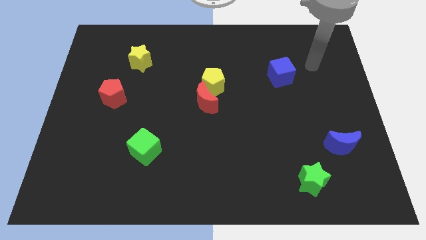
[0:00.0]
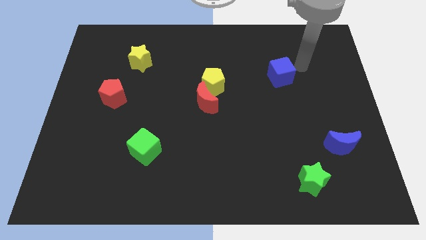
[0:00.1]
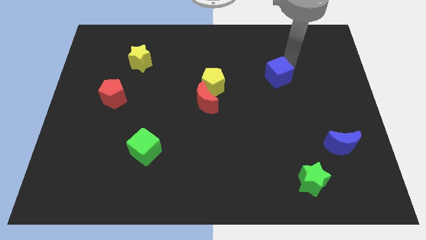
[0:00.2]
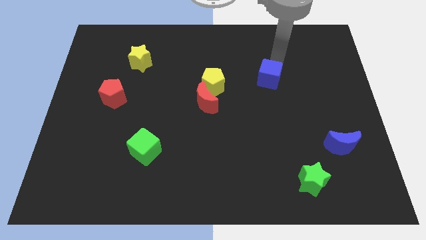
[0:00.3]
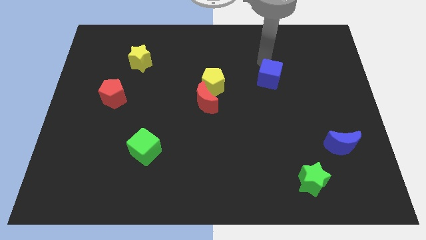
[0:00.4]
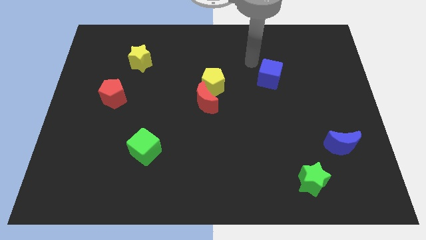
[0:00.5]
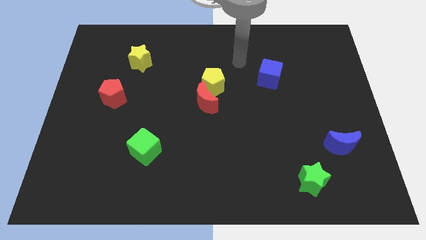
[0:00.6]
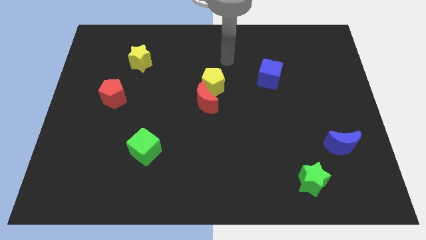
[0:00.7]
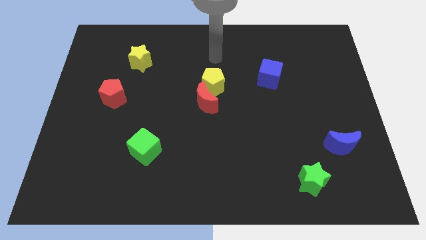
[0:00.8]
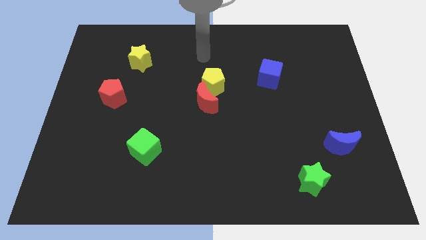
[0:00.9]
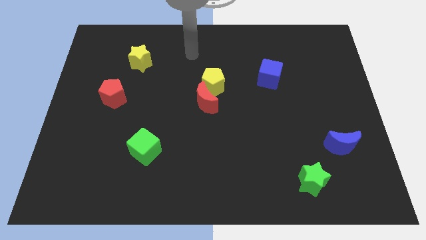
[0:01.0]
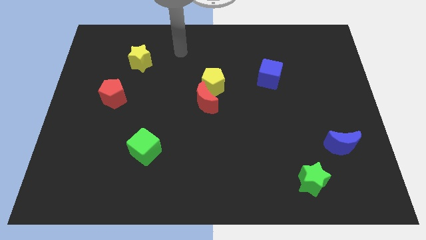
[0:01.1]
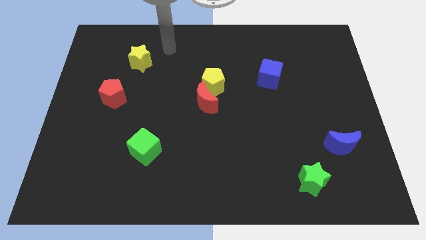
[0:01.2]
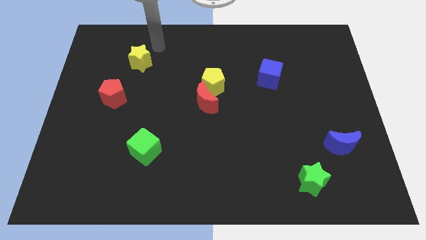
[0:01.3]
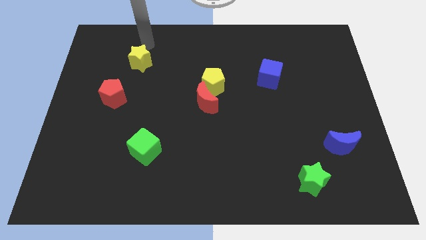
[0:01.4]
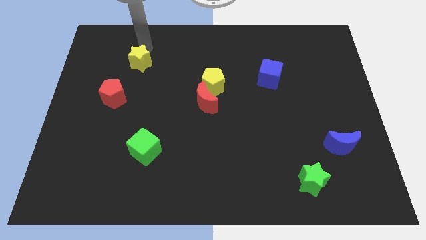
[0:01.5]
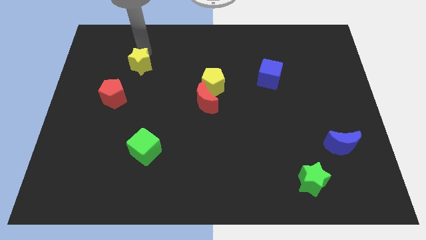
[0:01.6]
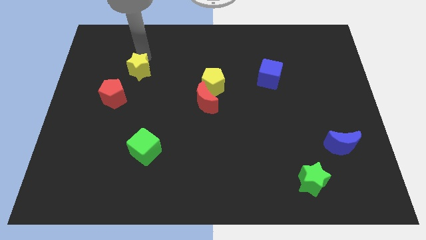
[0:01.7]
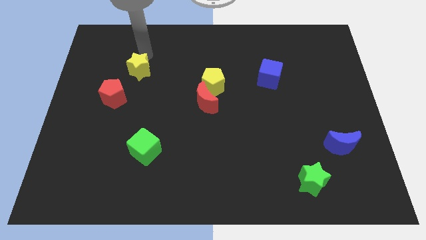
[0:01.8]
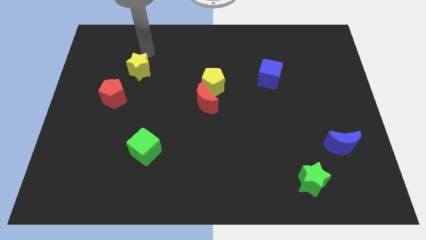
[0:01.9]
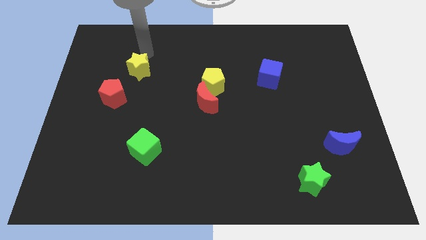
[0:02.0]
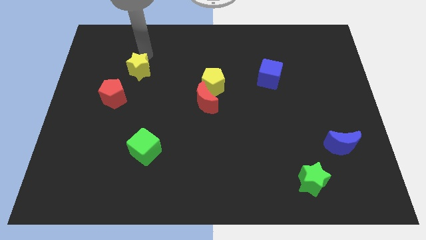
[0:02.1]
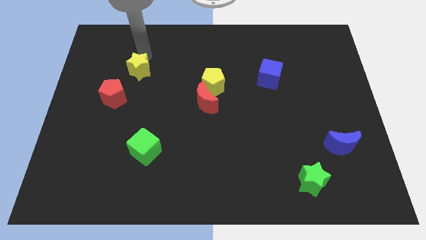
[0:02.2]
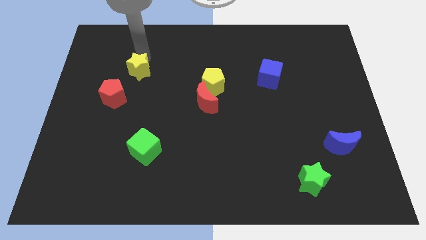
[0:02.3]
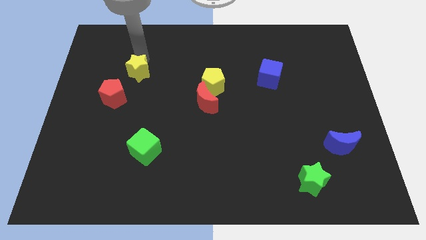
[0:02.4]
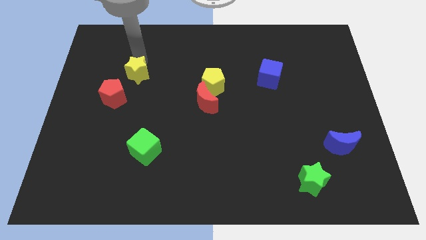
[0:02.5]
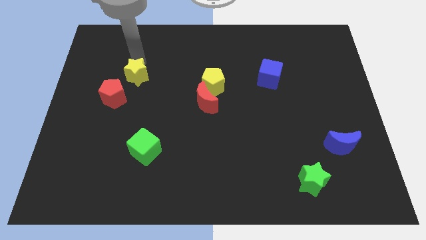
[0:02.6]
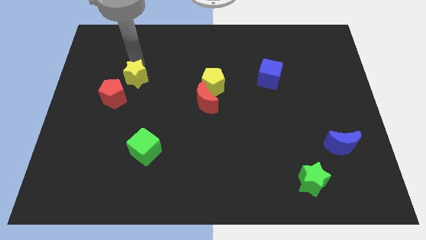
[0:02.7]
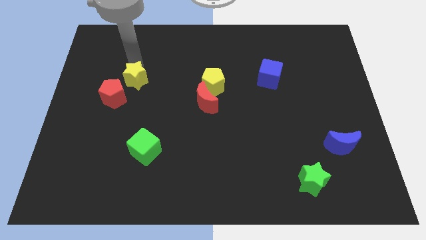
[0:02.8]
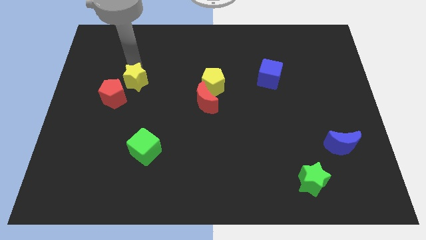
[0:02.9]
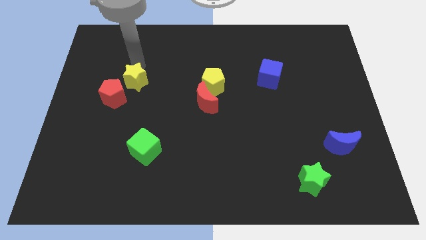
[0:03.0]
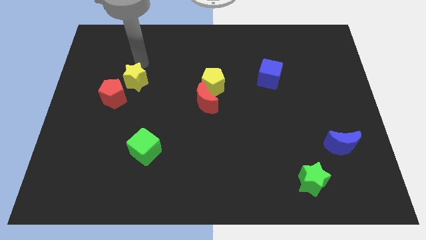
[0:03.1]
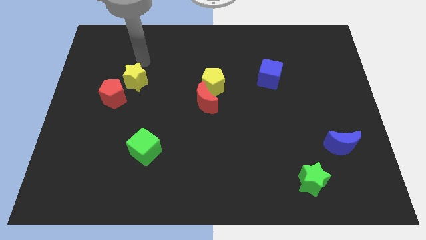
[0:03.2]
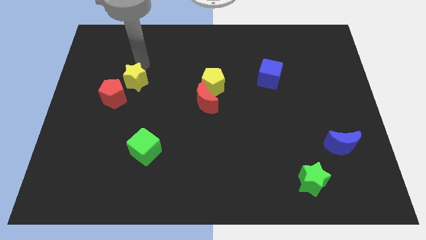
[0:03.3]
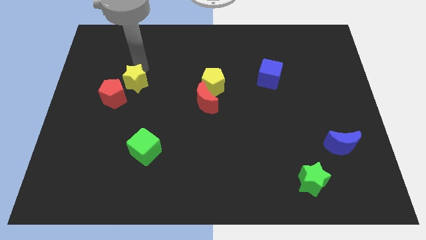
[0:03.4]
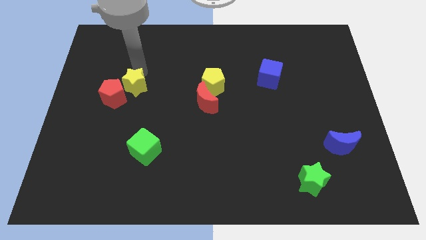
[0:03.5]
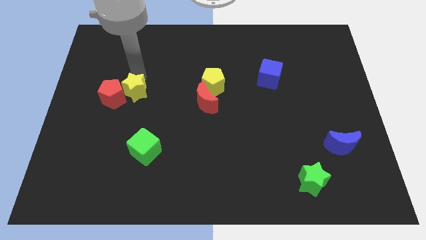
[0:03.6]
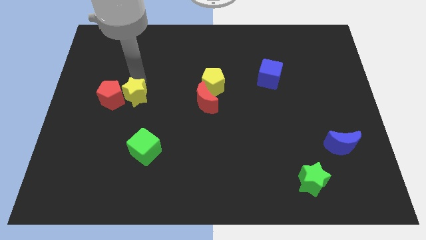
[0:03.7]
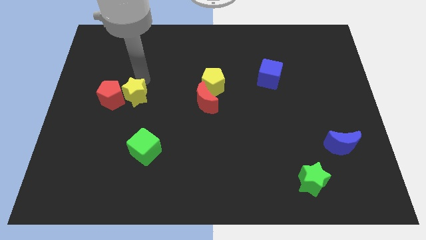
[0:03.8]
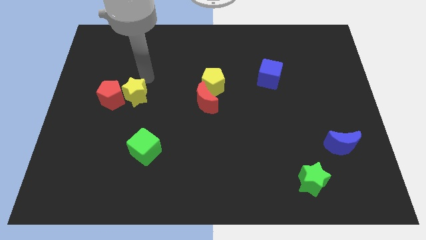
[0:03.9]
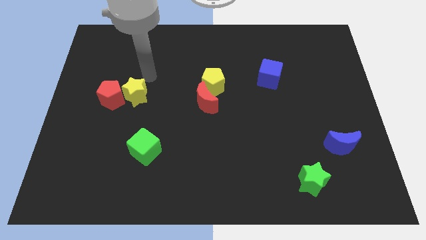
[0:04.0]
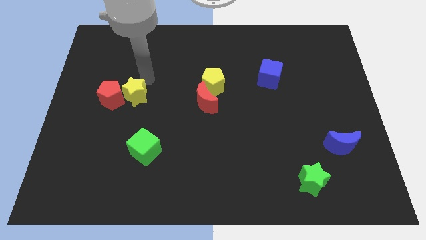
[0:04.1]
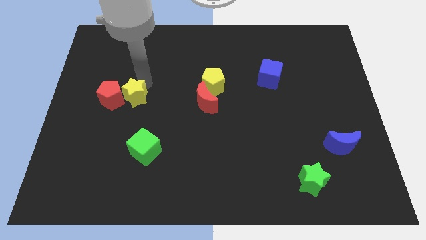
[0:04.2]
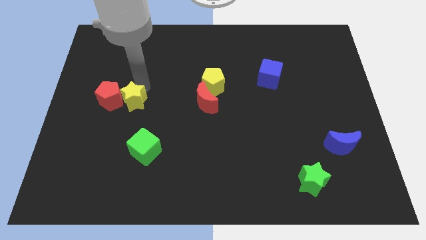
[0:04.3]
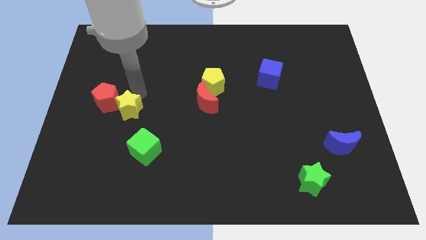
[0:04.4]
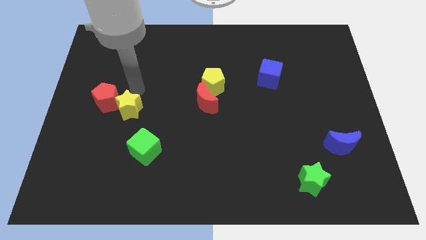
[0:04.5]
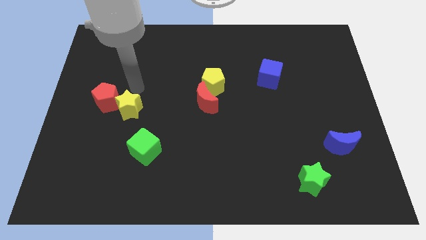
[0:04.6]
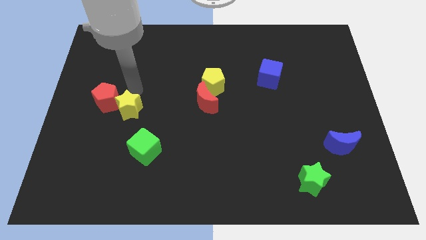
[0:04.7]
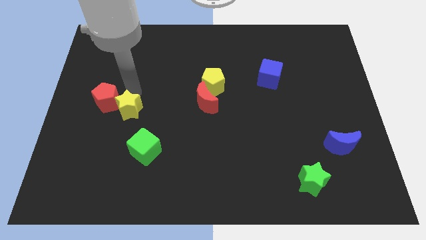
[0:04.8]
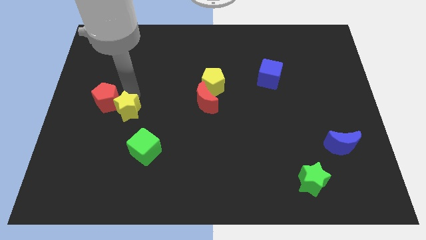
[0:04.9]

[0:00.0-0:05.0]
move the yellow star to the top left of the green cube

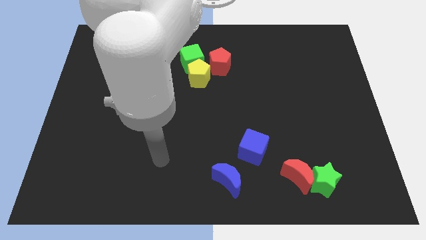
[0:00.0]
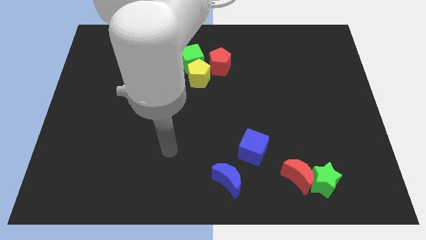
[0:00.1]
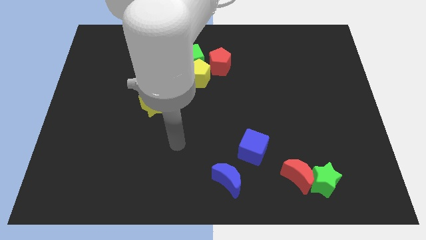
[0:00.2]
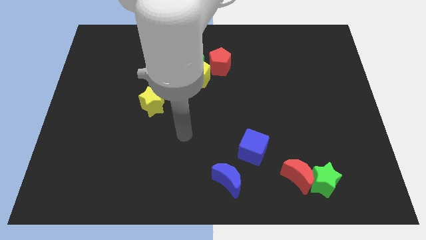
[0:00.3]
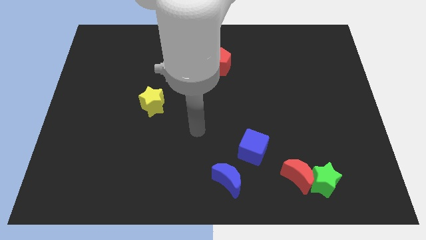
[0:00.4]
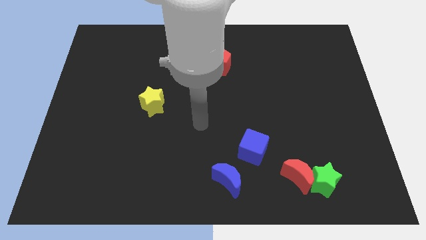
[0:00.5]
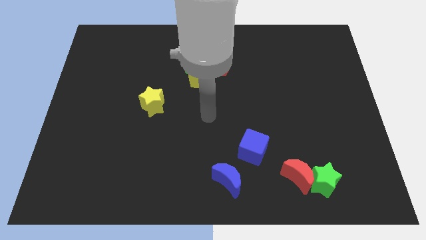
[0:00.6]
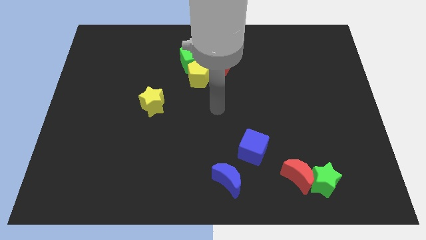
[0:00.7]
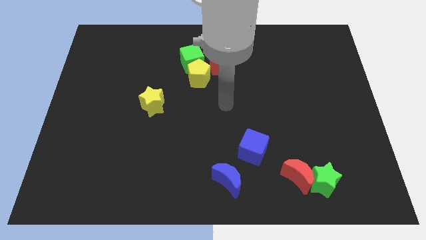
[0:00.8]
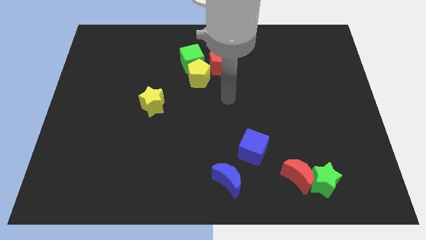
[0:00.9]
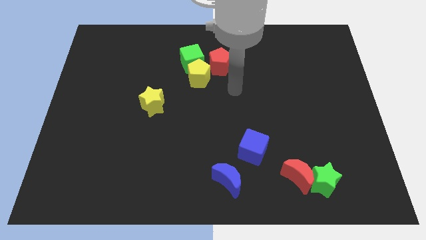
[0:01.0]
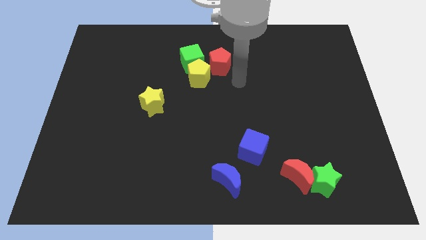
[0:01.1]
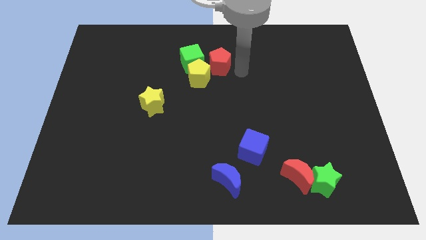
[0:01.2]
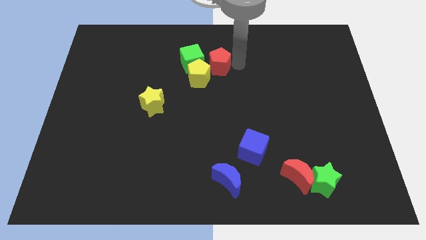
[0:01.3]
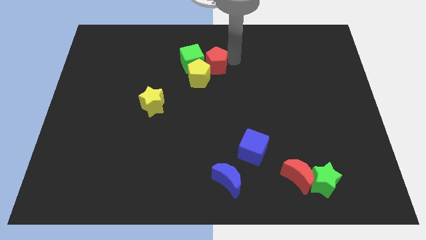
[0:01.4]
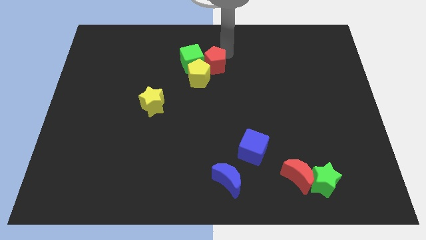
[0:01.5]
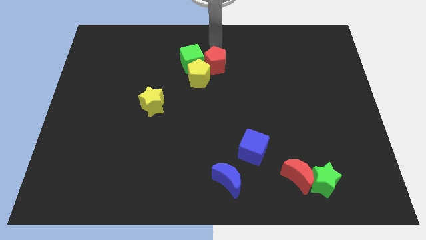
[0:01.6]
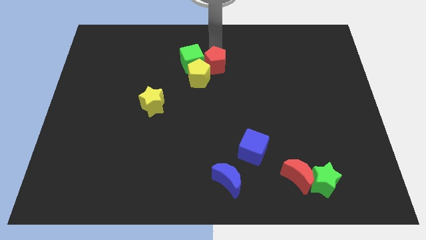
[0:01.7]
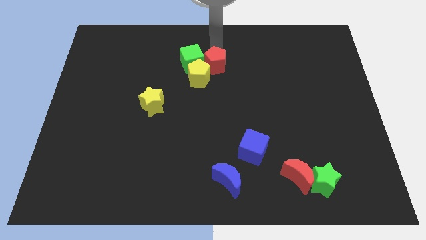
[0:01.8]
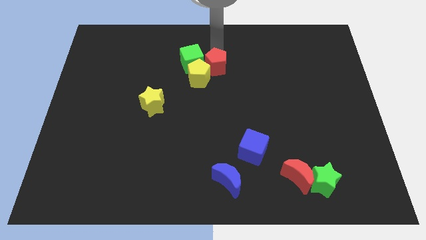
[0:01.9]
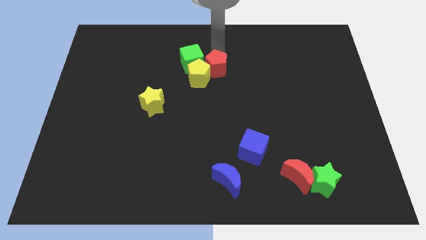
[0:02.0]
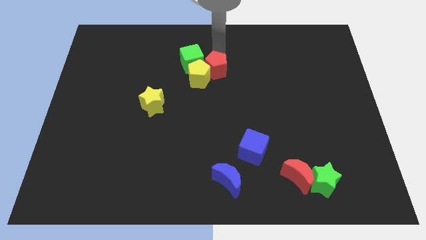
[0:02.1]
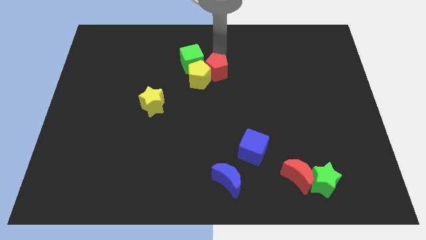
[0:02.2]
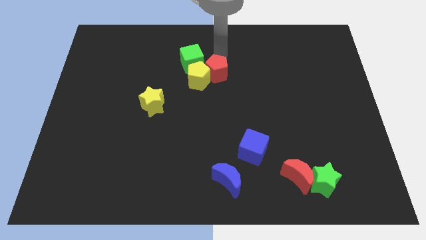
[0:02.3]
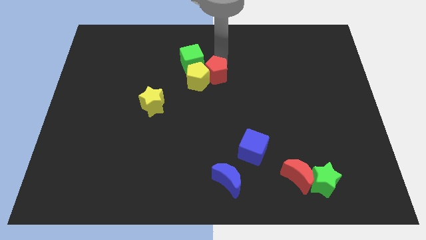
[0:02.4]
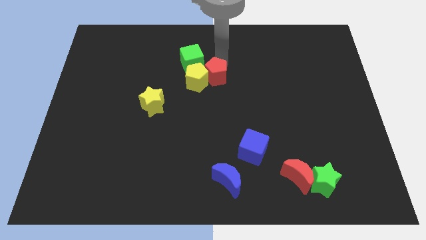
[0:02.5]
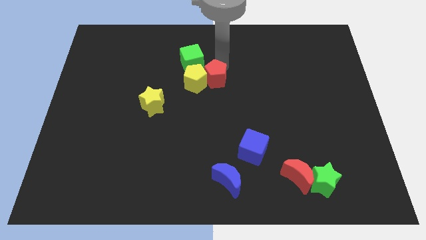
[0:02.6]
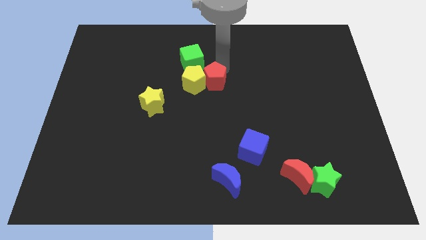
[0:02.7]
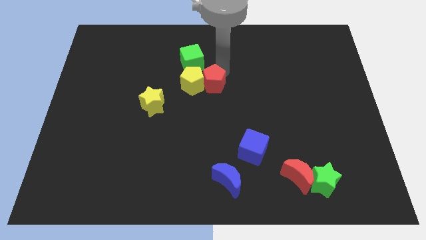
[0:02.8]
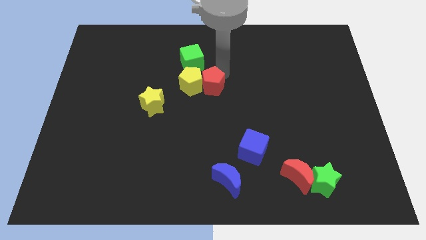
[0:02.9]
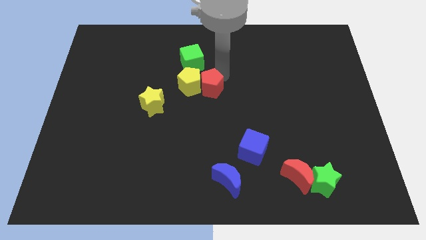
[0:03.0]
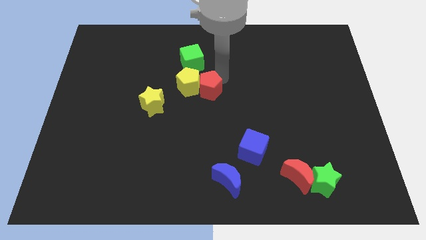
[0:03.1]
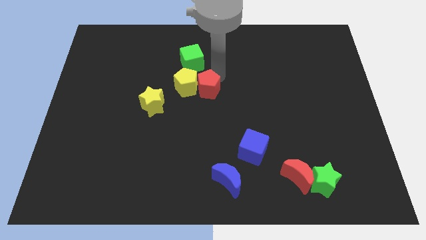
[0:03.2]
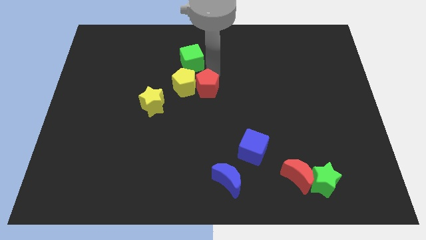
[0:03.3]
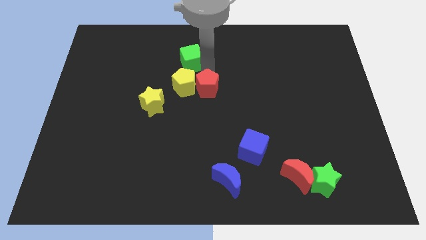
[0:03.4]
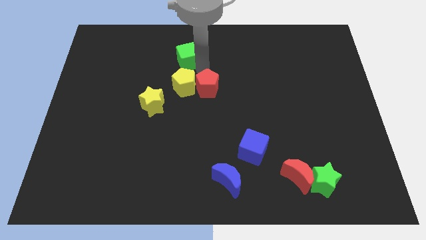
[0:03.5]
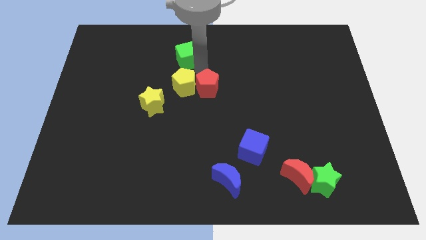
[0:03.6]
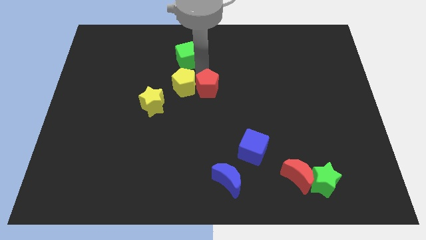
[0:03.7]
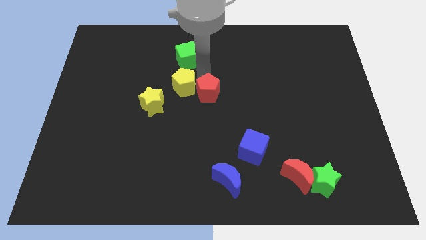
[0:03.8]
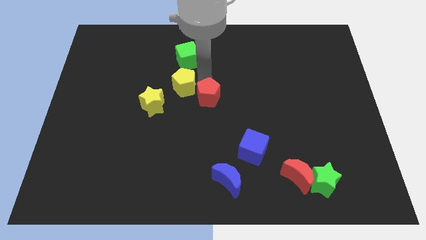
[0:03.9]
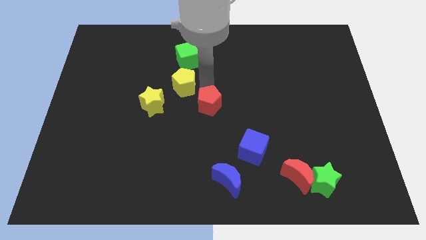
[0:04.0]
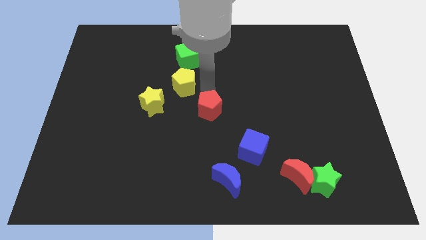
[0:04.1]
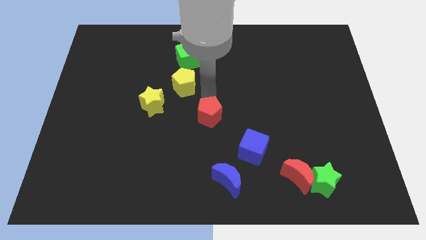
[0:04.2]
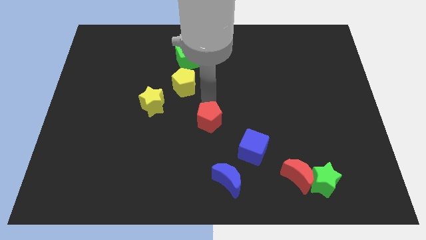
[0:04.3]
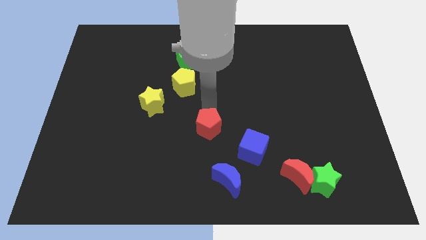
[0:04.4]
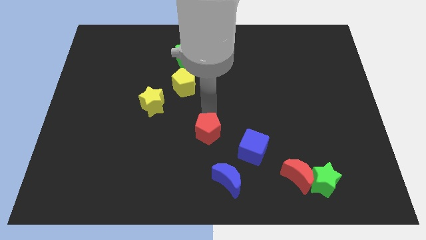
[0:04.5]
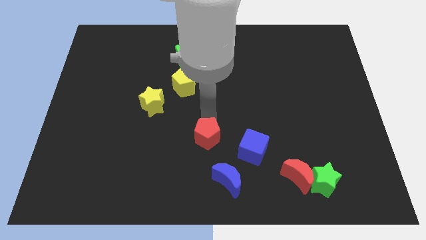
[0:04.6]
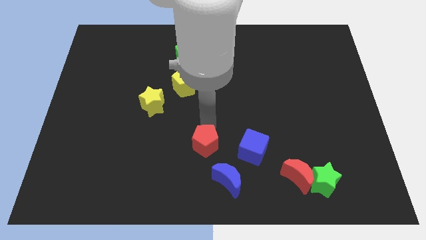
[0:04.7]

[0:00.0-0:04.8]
put the red pentagon diagonally up and to the left of the blue moon
